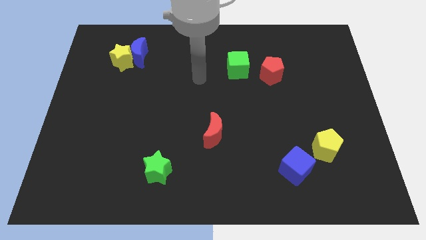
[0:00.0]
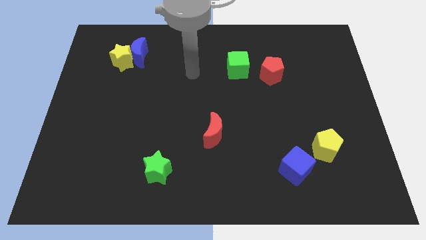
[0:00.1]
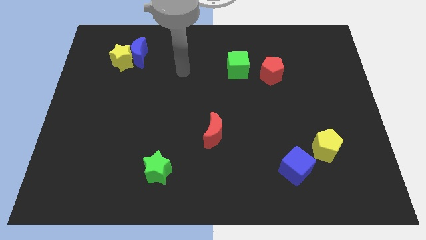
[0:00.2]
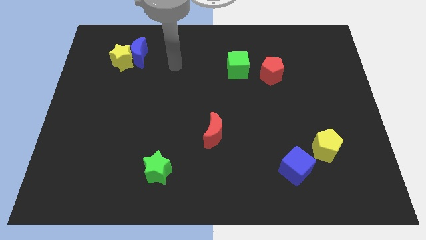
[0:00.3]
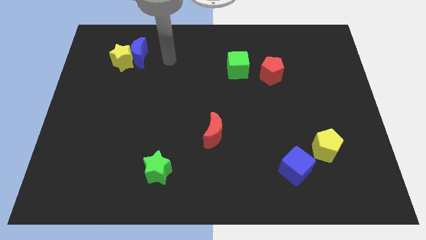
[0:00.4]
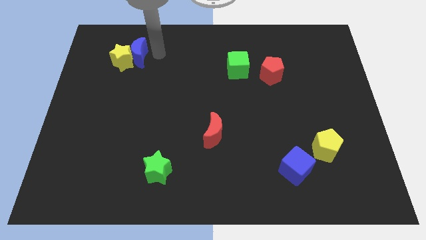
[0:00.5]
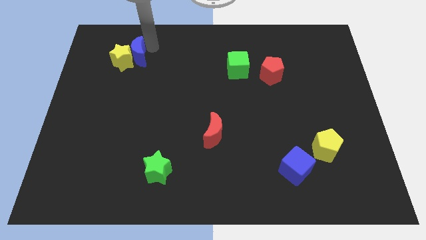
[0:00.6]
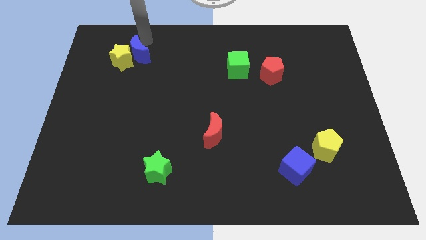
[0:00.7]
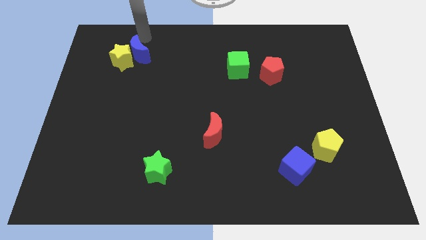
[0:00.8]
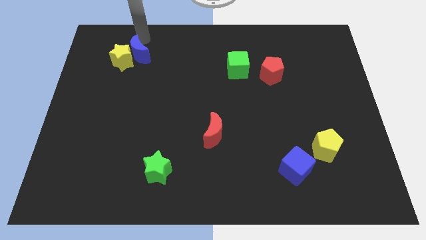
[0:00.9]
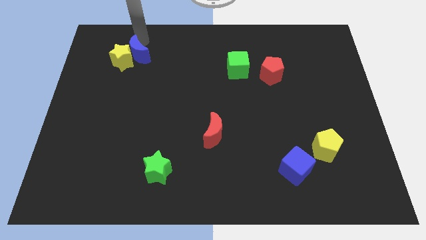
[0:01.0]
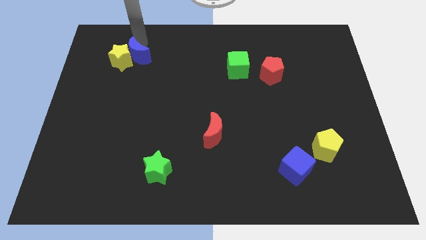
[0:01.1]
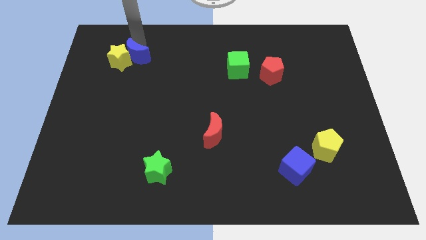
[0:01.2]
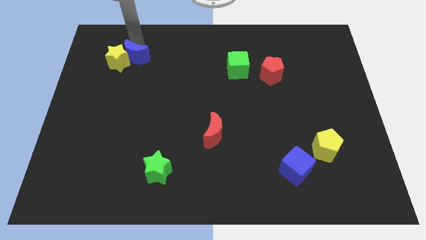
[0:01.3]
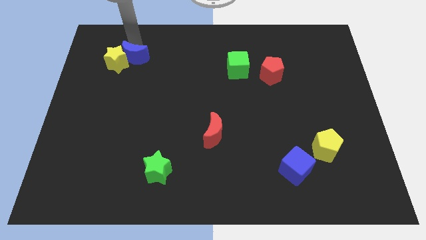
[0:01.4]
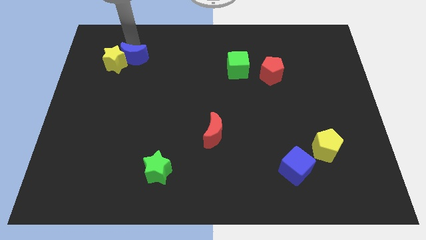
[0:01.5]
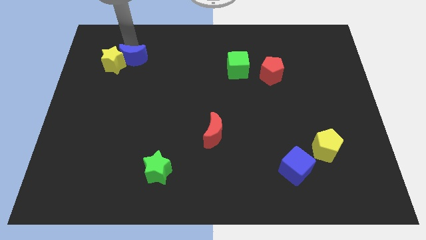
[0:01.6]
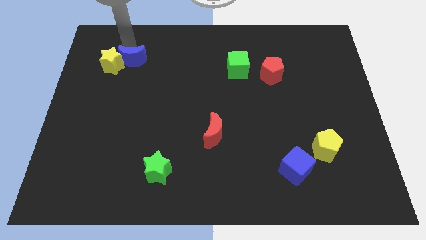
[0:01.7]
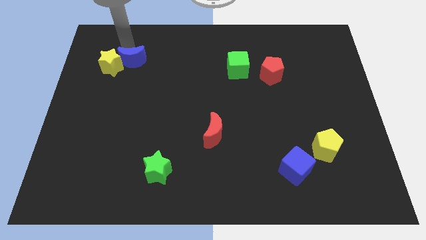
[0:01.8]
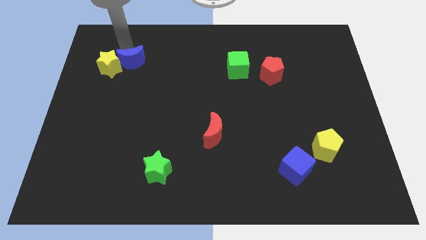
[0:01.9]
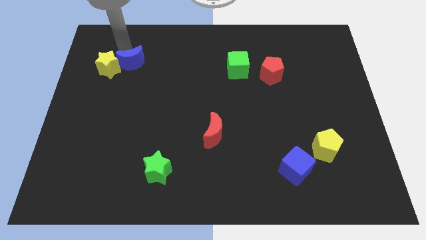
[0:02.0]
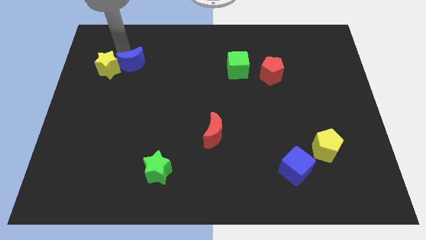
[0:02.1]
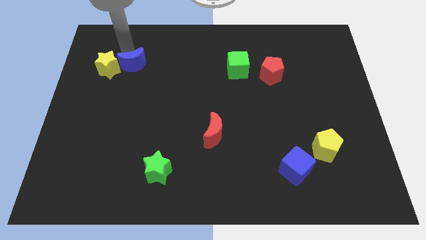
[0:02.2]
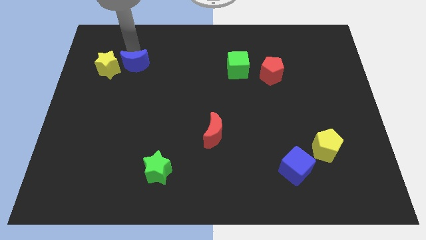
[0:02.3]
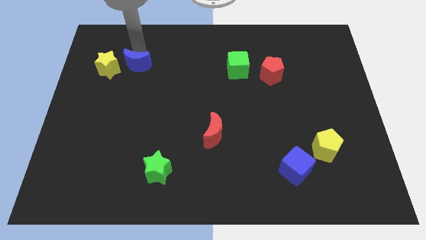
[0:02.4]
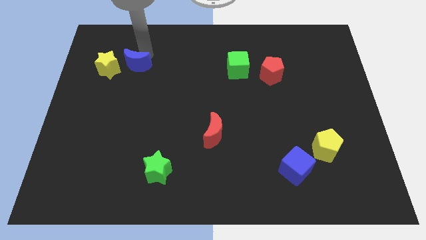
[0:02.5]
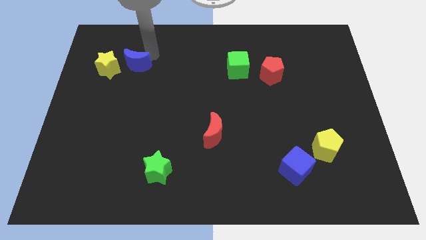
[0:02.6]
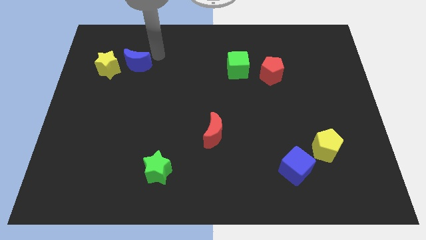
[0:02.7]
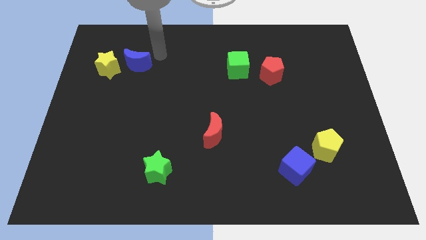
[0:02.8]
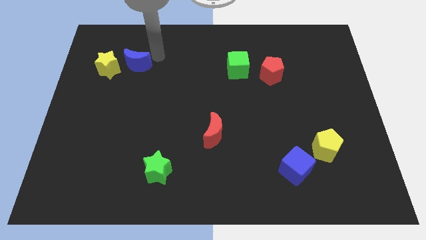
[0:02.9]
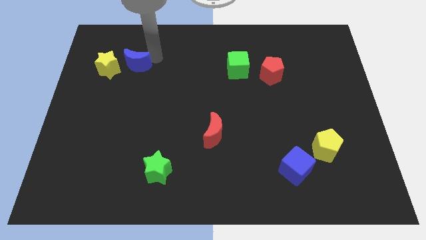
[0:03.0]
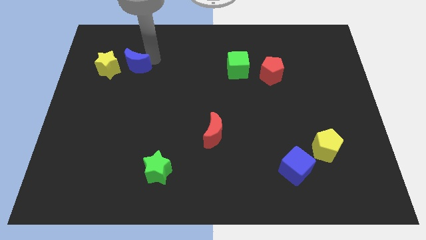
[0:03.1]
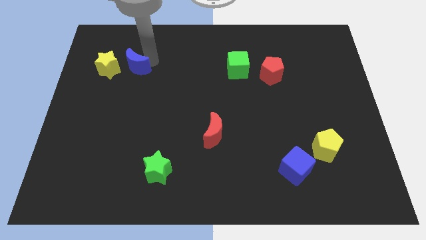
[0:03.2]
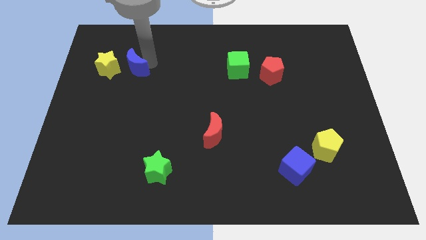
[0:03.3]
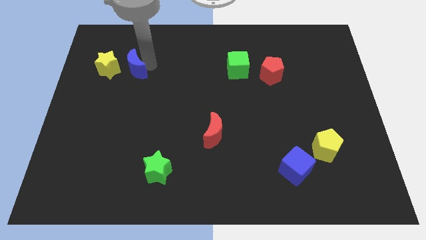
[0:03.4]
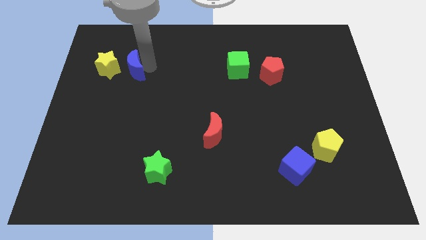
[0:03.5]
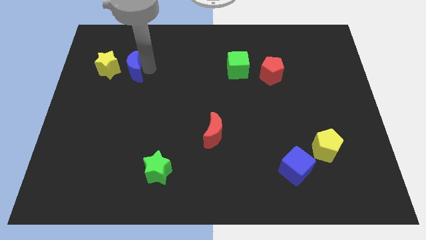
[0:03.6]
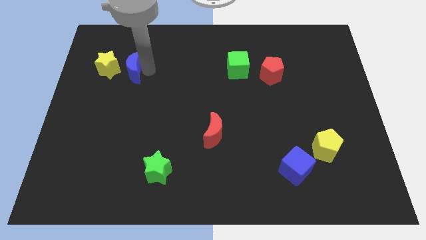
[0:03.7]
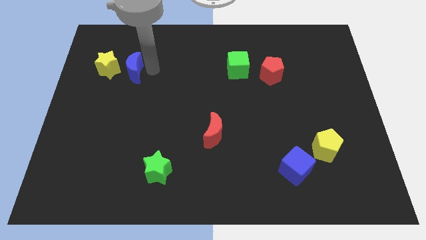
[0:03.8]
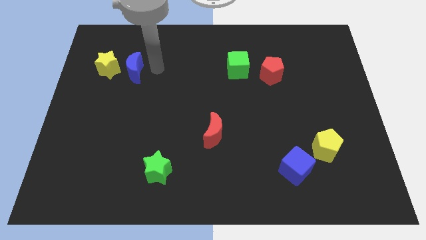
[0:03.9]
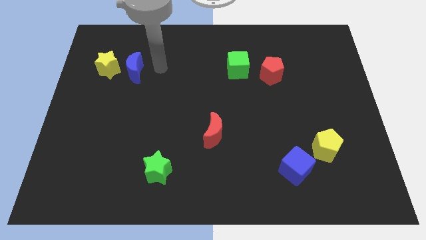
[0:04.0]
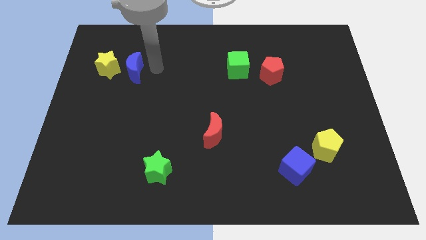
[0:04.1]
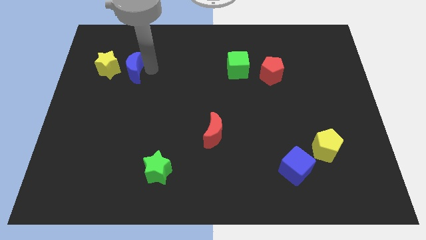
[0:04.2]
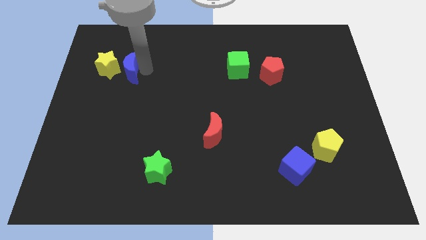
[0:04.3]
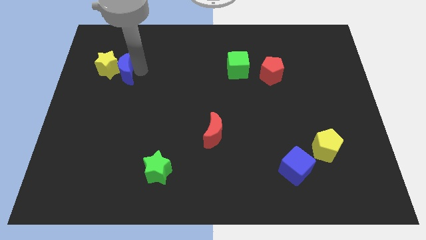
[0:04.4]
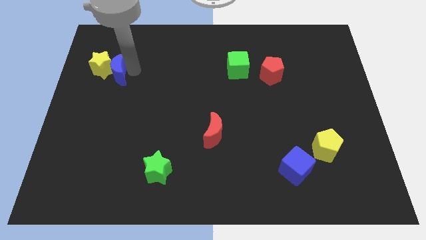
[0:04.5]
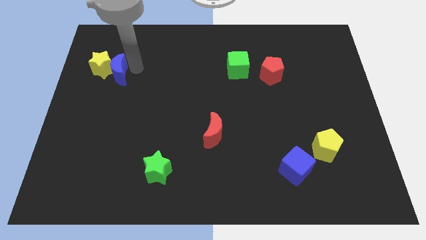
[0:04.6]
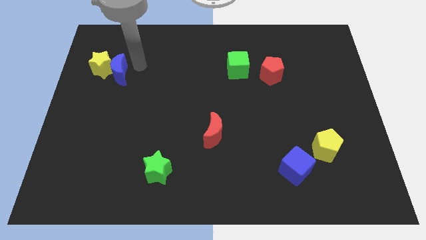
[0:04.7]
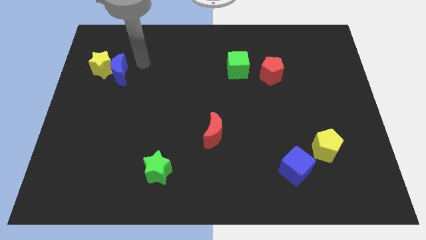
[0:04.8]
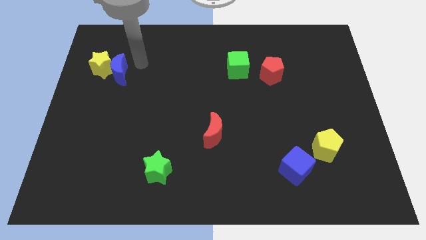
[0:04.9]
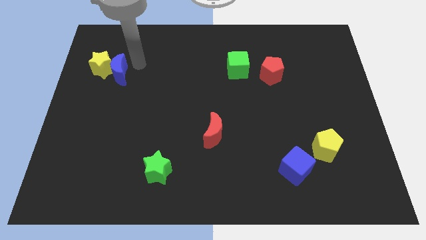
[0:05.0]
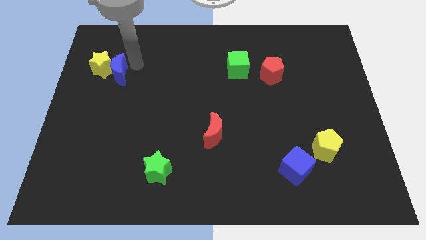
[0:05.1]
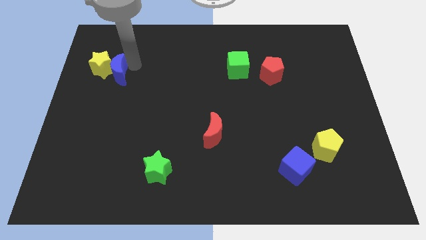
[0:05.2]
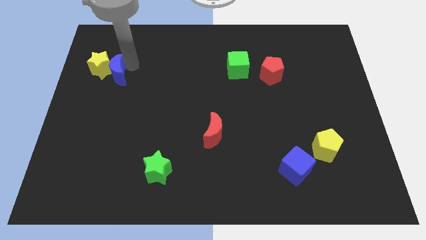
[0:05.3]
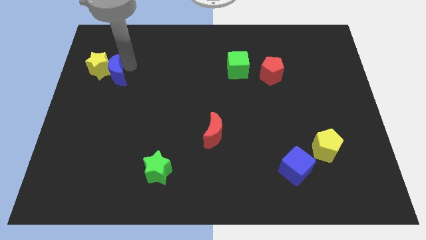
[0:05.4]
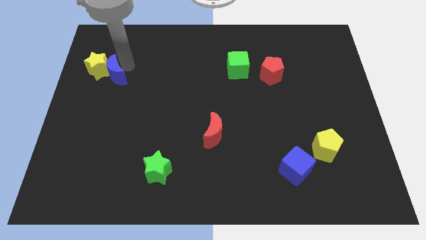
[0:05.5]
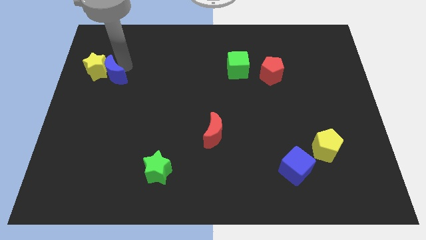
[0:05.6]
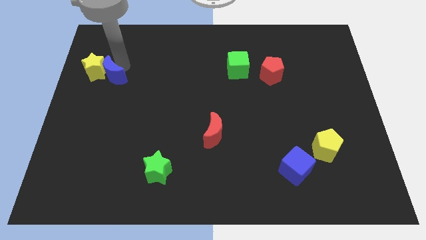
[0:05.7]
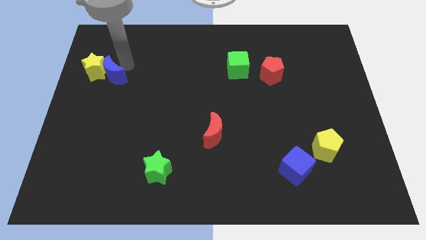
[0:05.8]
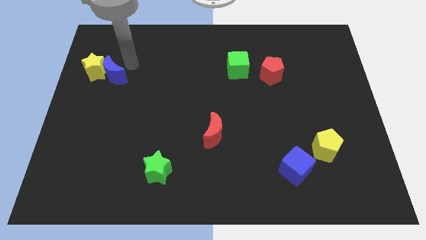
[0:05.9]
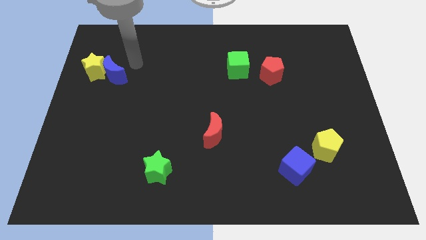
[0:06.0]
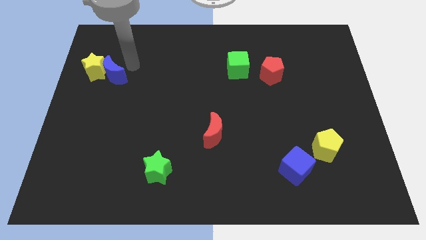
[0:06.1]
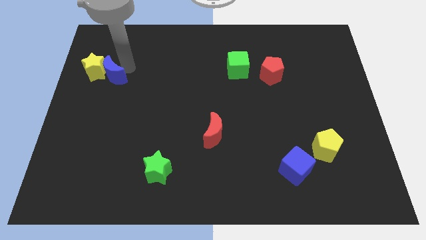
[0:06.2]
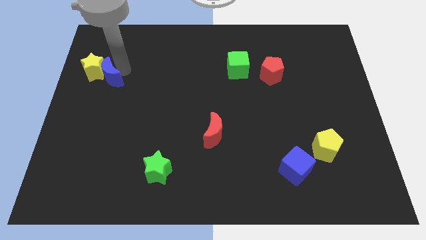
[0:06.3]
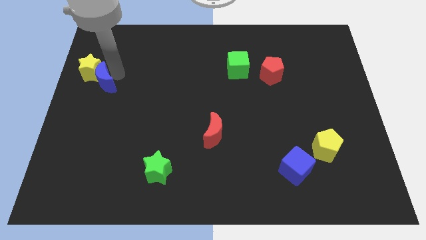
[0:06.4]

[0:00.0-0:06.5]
put the blue moon to the center left
